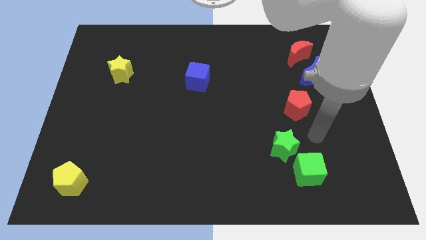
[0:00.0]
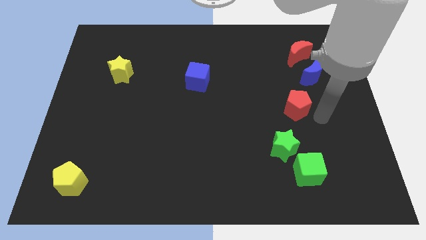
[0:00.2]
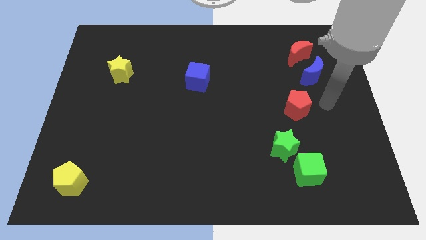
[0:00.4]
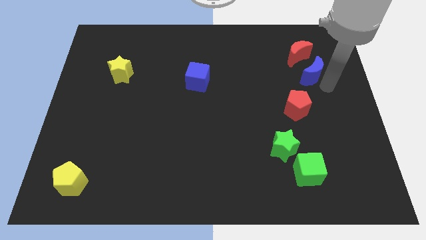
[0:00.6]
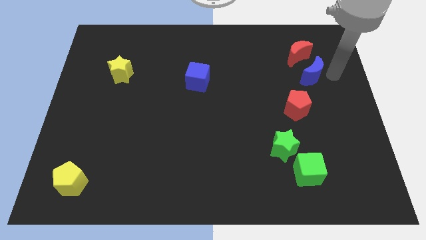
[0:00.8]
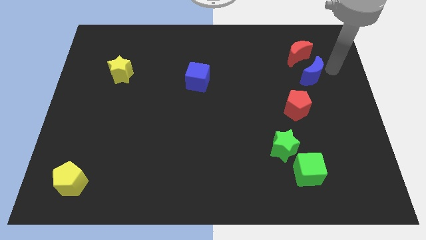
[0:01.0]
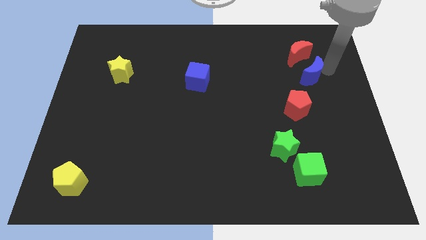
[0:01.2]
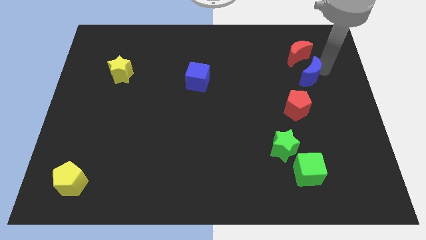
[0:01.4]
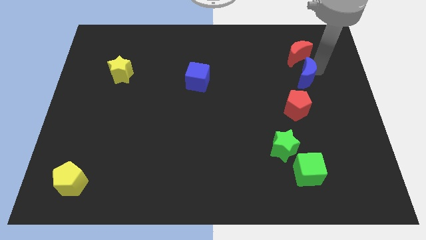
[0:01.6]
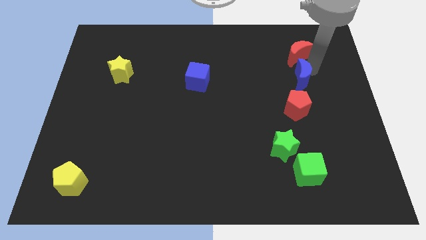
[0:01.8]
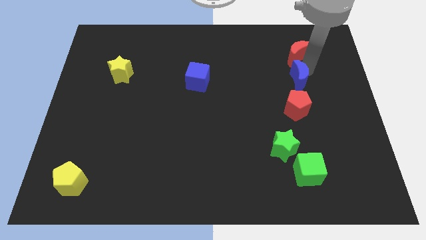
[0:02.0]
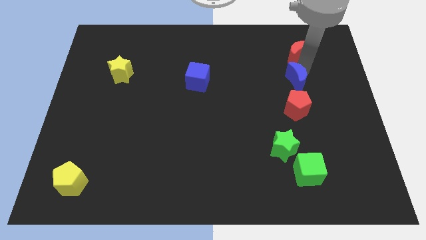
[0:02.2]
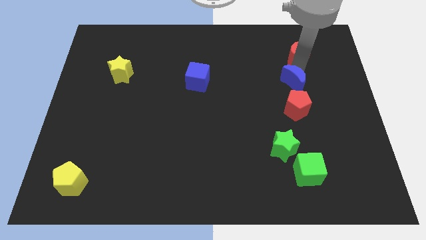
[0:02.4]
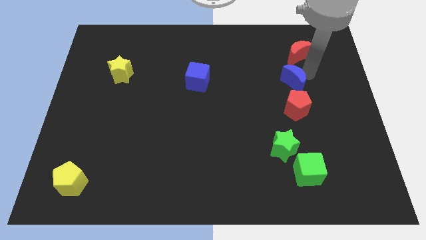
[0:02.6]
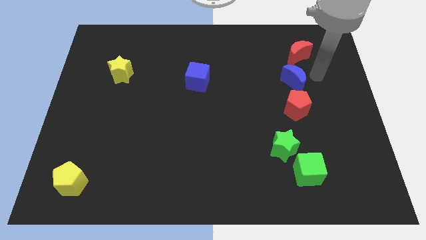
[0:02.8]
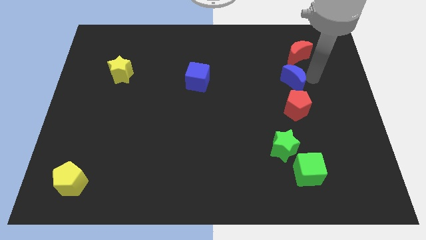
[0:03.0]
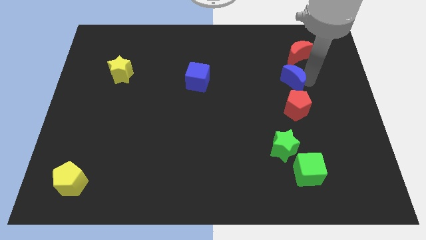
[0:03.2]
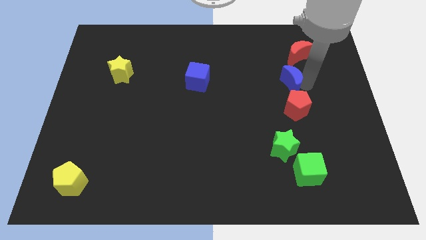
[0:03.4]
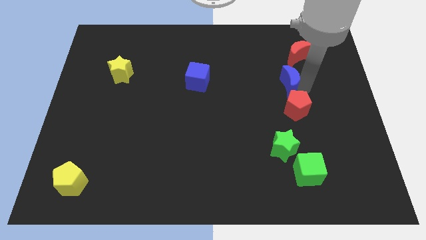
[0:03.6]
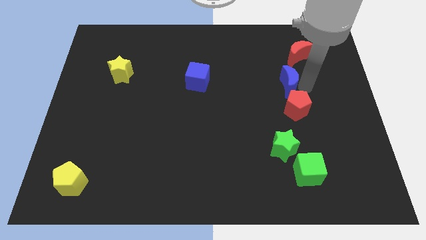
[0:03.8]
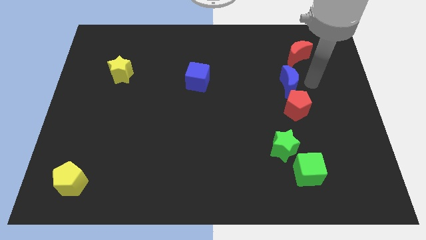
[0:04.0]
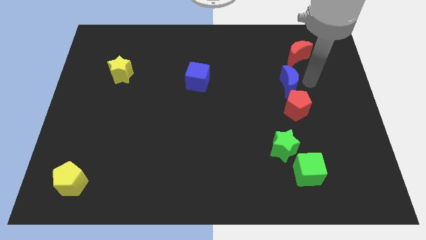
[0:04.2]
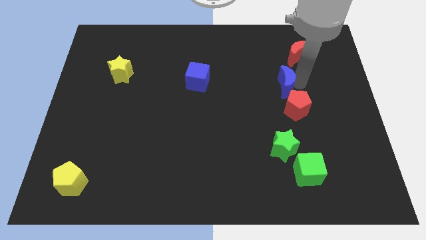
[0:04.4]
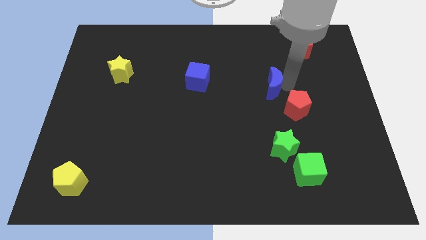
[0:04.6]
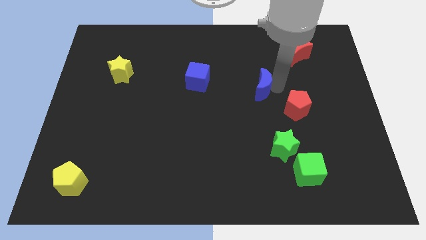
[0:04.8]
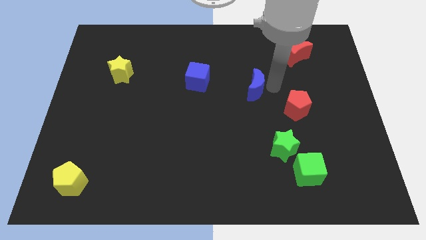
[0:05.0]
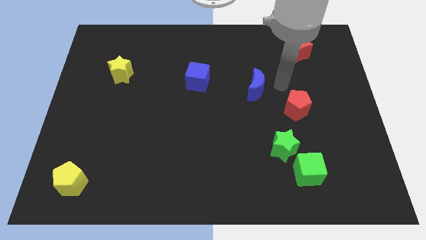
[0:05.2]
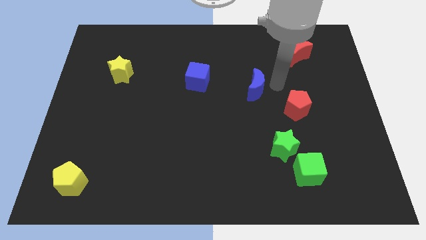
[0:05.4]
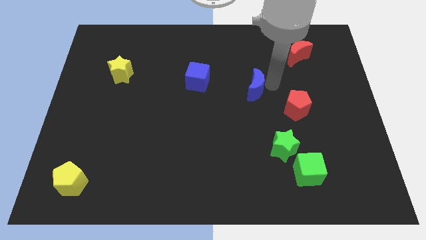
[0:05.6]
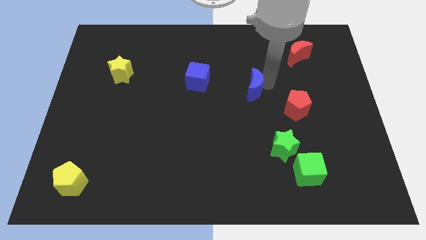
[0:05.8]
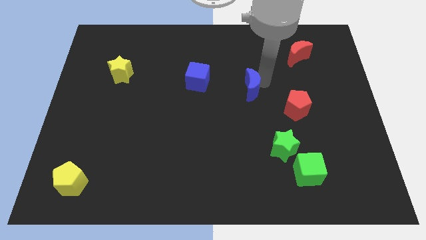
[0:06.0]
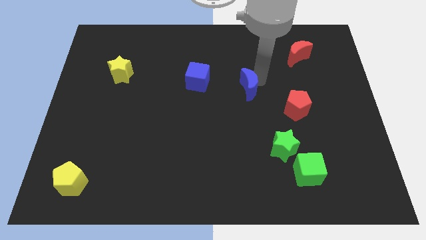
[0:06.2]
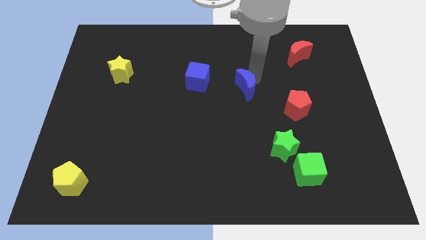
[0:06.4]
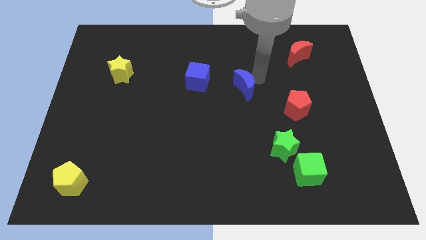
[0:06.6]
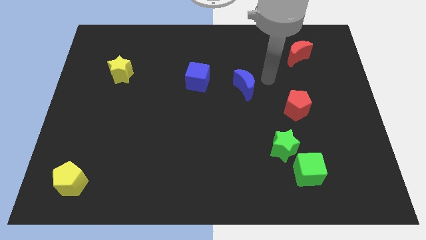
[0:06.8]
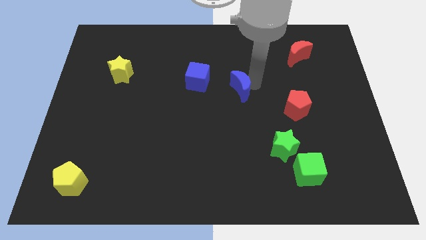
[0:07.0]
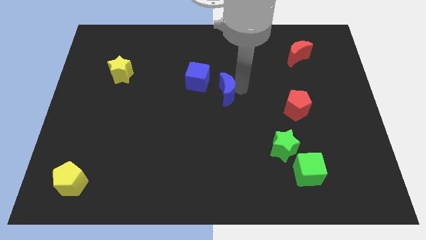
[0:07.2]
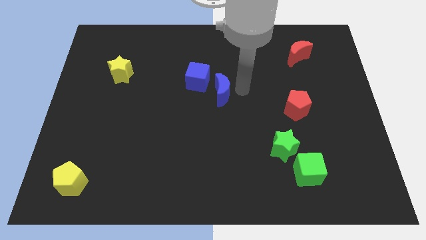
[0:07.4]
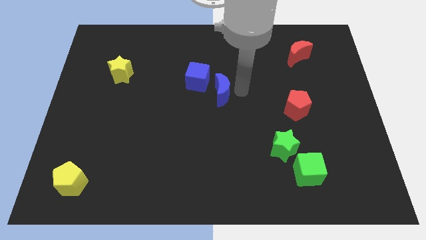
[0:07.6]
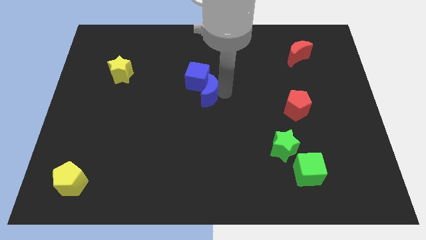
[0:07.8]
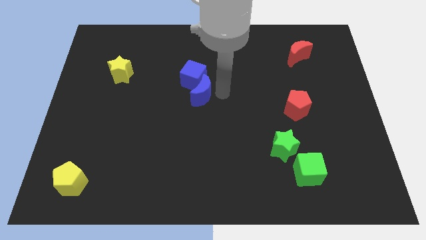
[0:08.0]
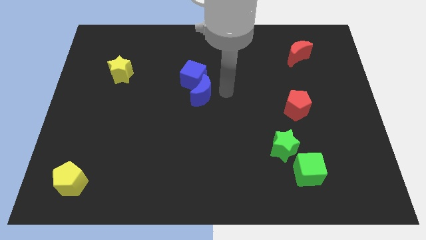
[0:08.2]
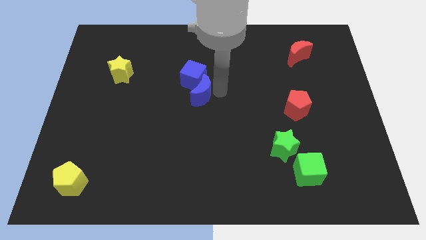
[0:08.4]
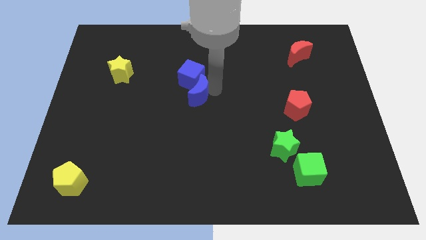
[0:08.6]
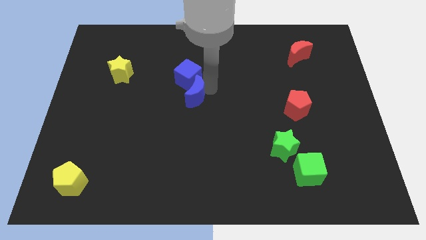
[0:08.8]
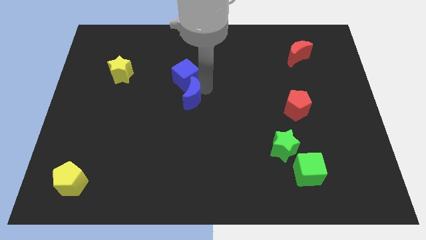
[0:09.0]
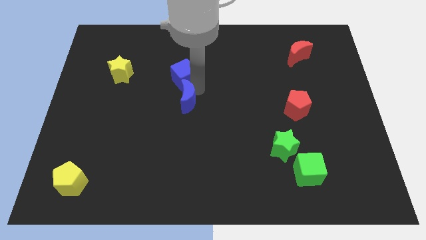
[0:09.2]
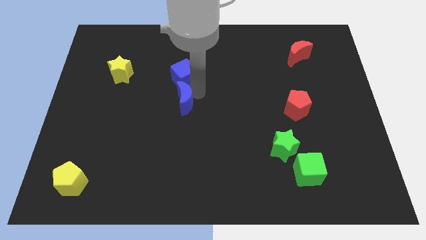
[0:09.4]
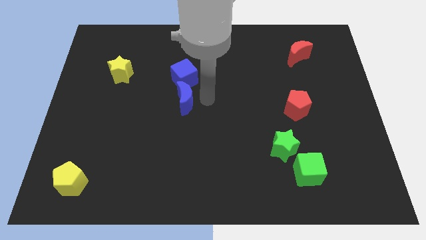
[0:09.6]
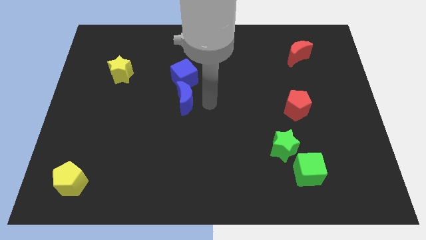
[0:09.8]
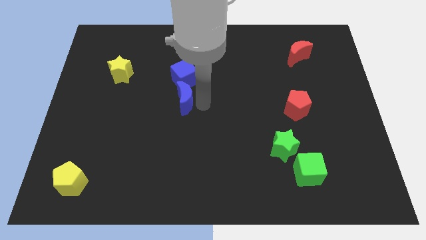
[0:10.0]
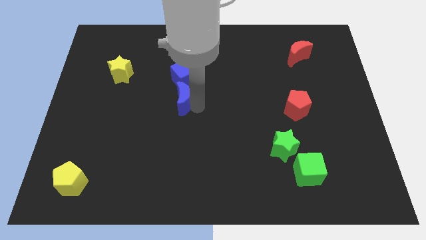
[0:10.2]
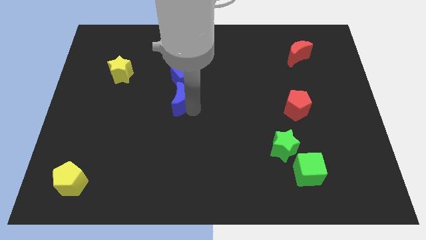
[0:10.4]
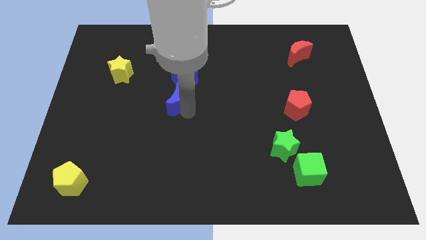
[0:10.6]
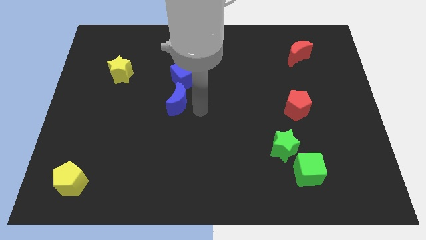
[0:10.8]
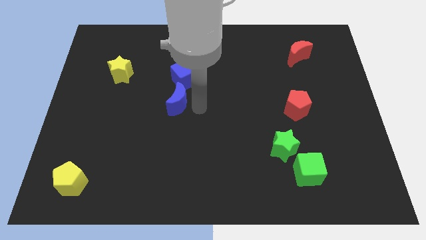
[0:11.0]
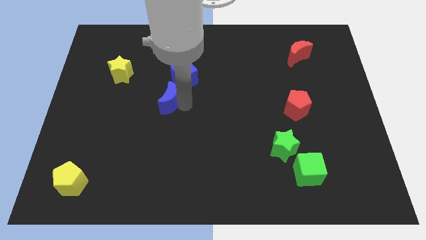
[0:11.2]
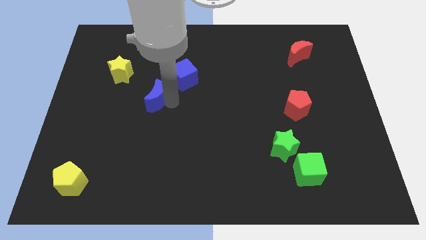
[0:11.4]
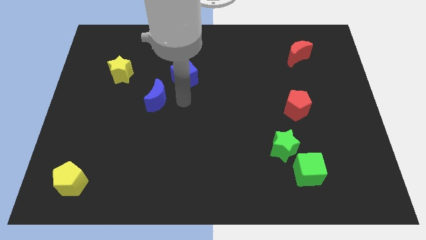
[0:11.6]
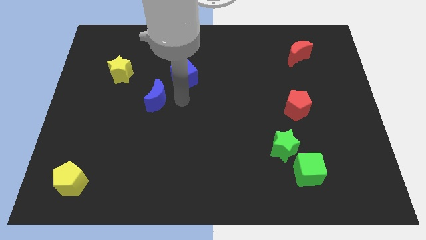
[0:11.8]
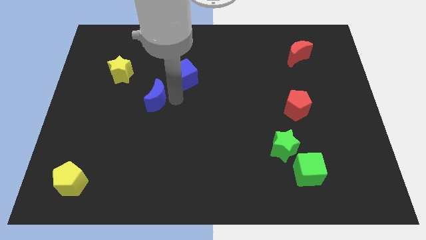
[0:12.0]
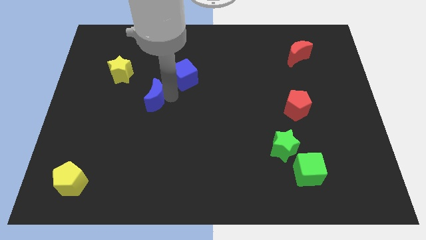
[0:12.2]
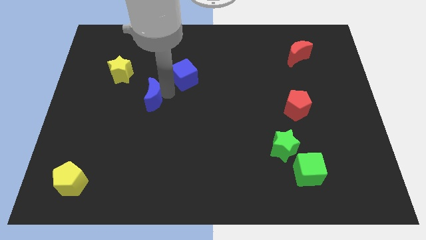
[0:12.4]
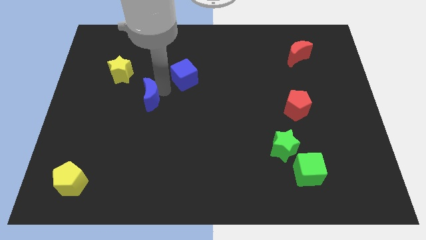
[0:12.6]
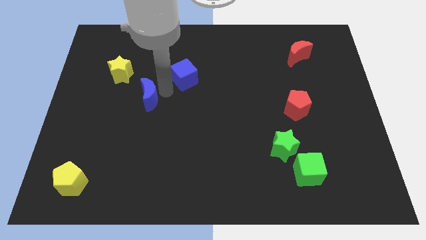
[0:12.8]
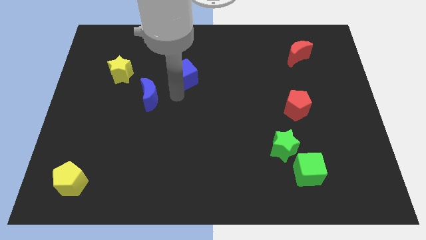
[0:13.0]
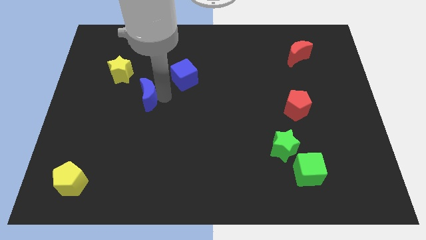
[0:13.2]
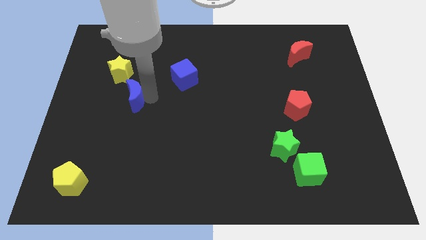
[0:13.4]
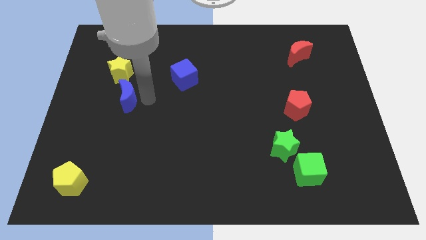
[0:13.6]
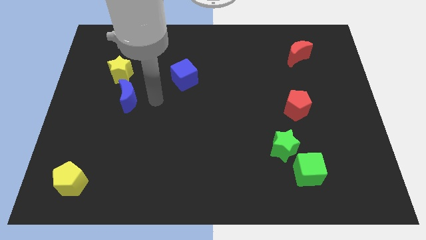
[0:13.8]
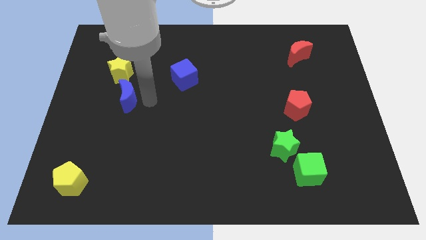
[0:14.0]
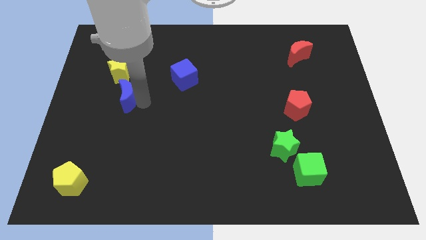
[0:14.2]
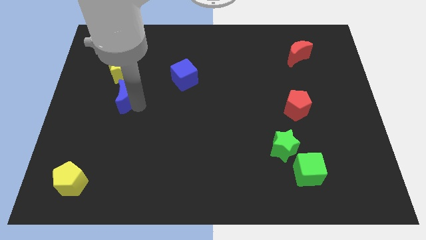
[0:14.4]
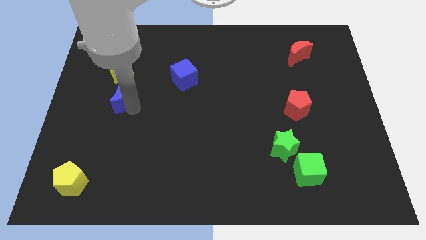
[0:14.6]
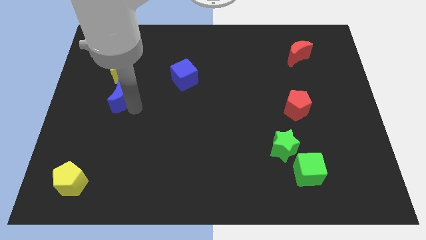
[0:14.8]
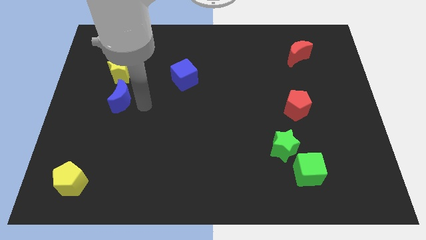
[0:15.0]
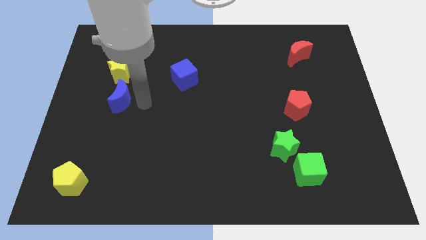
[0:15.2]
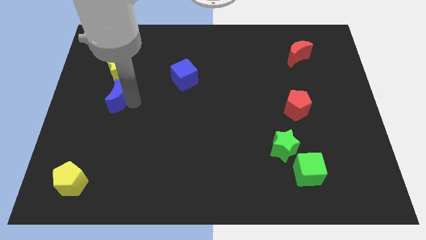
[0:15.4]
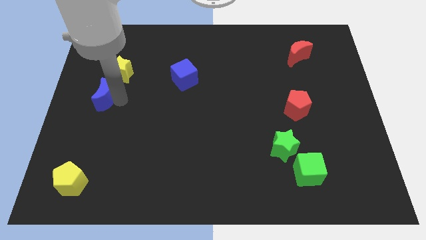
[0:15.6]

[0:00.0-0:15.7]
slide the blue moon to the left side of the board
